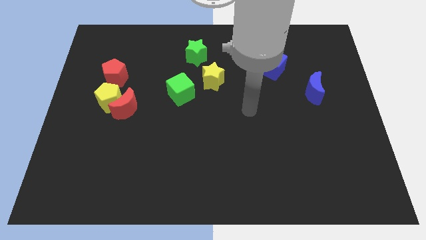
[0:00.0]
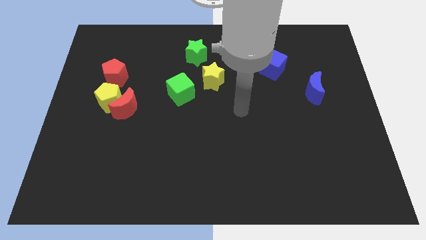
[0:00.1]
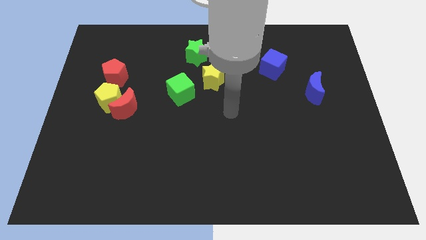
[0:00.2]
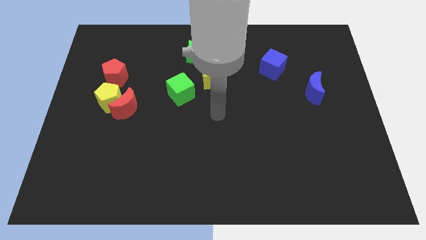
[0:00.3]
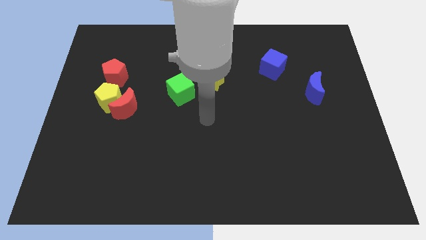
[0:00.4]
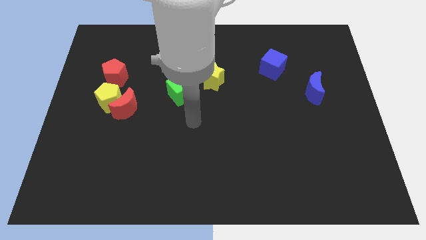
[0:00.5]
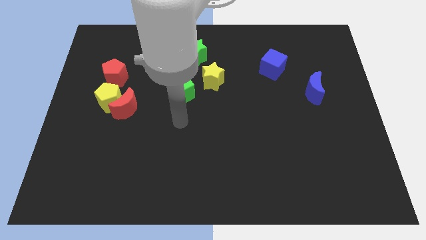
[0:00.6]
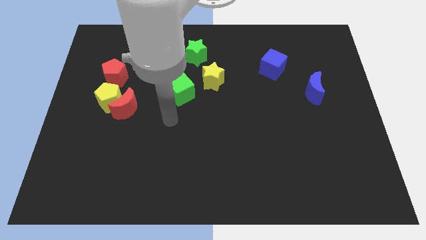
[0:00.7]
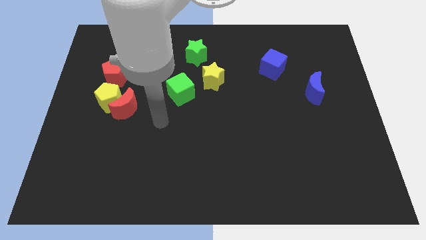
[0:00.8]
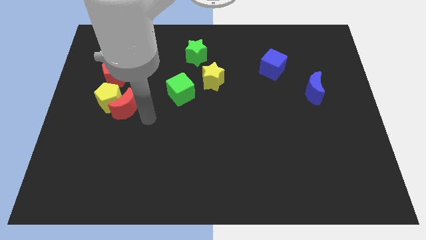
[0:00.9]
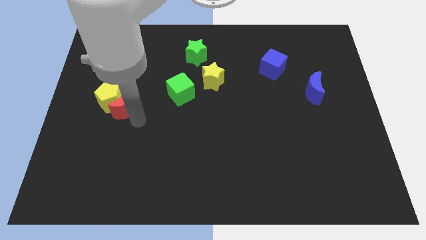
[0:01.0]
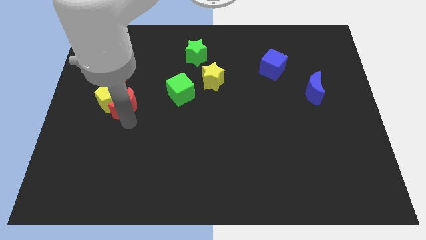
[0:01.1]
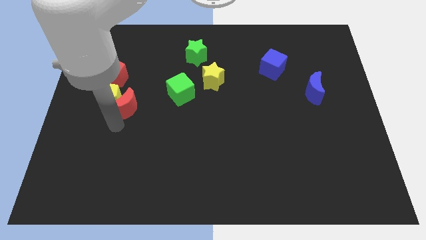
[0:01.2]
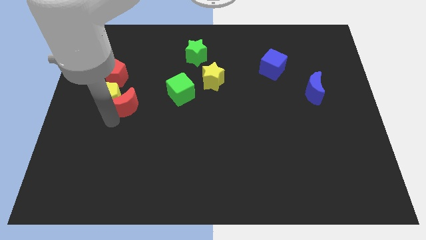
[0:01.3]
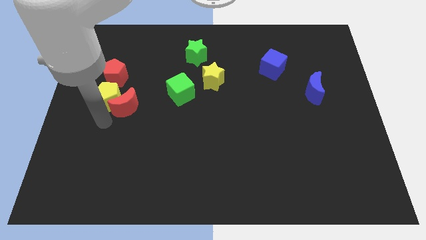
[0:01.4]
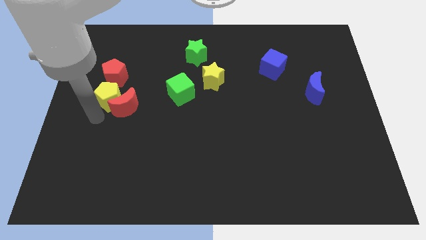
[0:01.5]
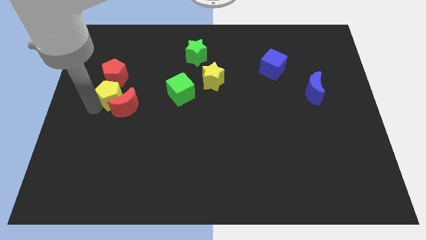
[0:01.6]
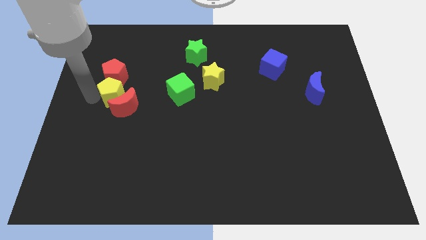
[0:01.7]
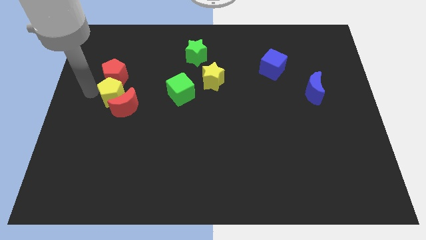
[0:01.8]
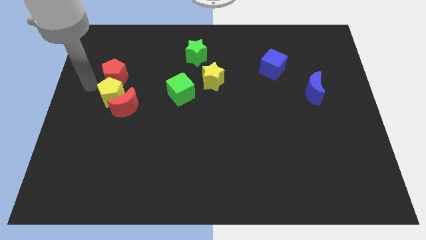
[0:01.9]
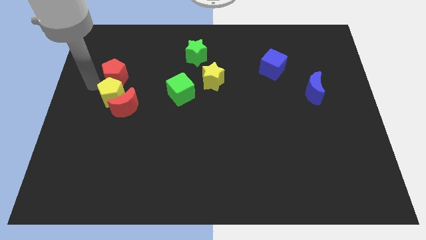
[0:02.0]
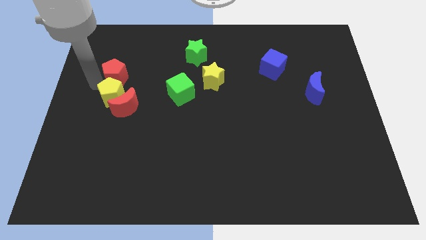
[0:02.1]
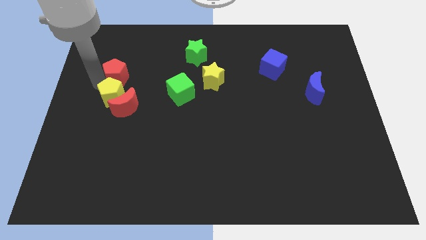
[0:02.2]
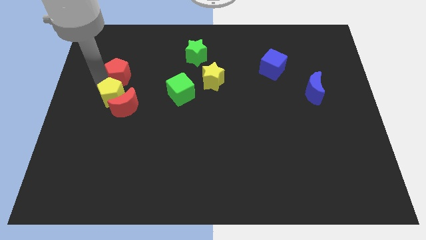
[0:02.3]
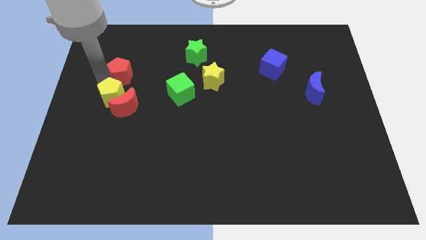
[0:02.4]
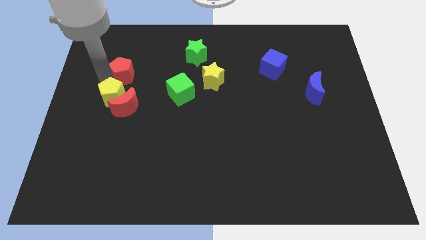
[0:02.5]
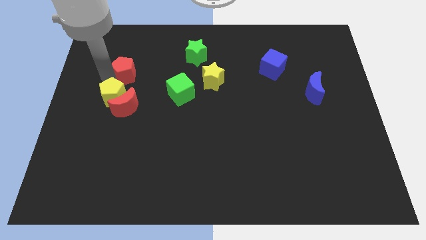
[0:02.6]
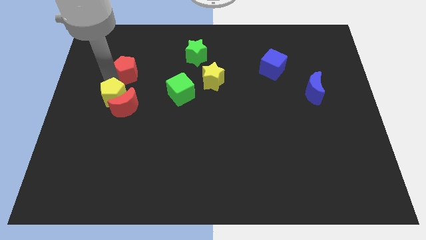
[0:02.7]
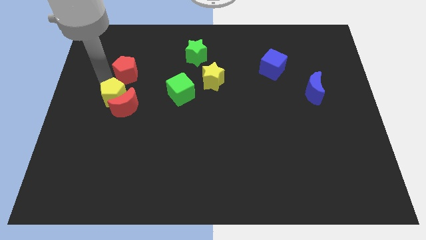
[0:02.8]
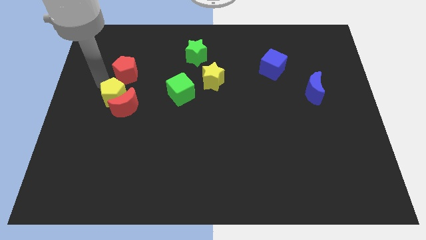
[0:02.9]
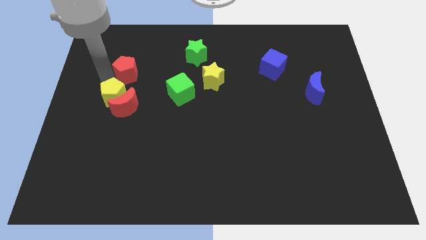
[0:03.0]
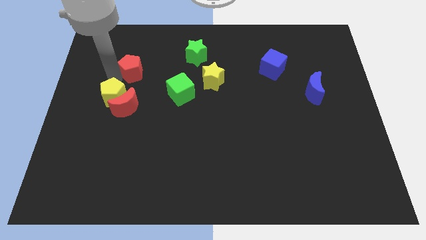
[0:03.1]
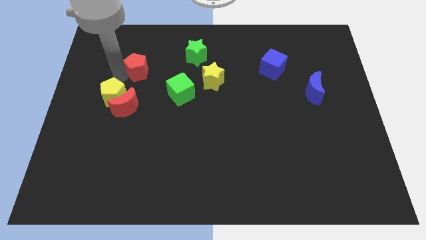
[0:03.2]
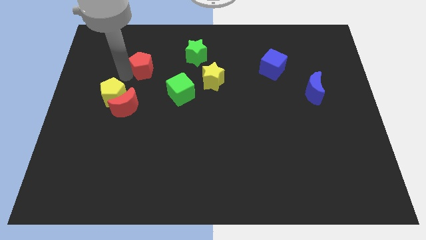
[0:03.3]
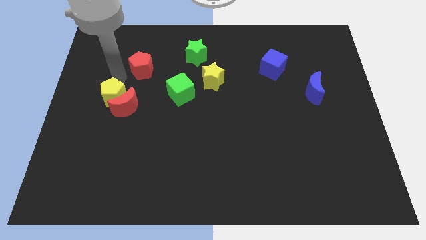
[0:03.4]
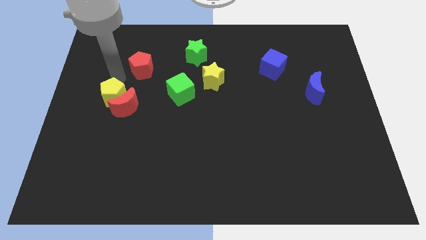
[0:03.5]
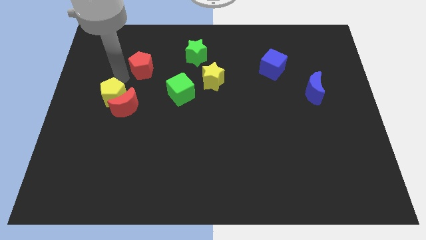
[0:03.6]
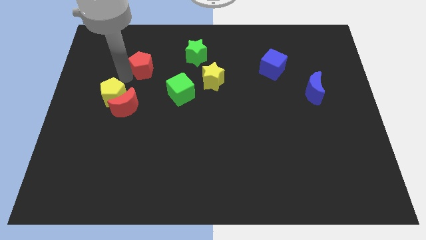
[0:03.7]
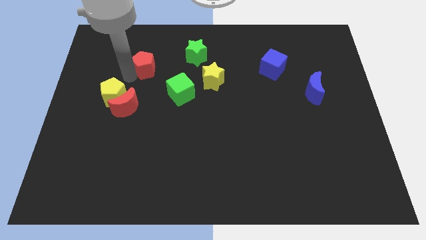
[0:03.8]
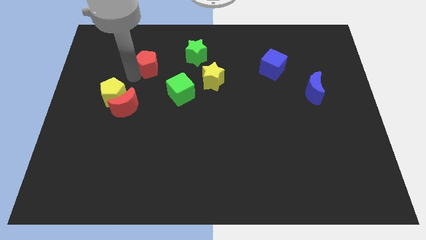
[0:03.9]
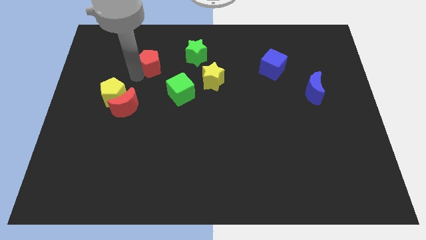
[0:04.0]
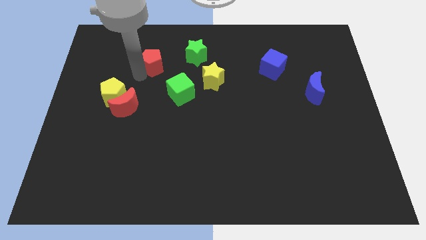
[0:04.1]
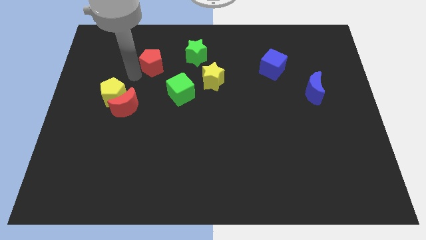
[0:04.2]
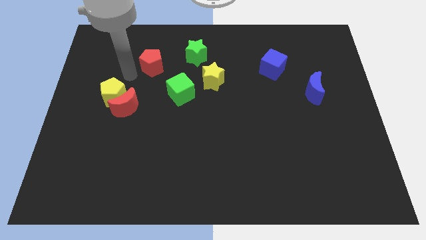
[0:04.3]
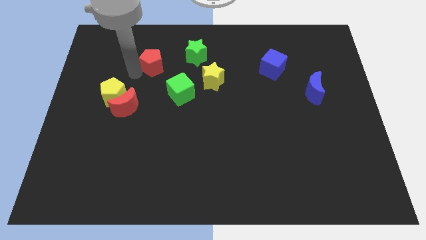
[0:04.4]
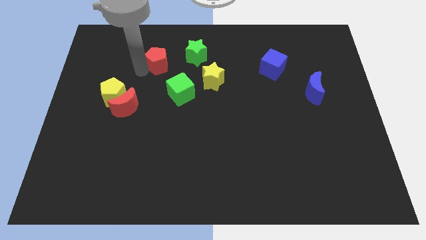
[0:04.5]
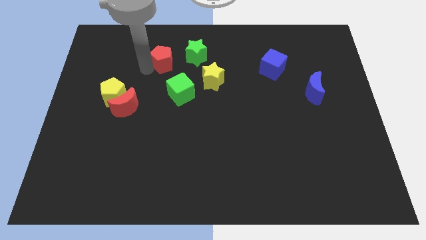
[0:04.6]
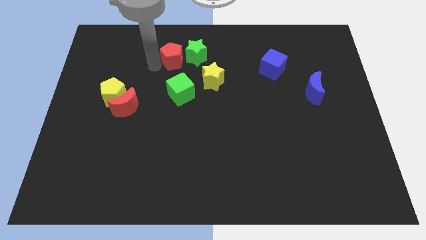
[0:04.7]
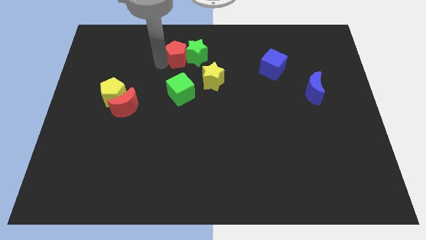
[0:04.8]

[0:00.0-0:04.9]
push the red pentagon next to the green star

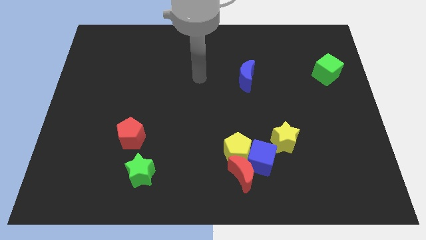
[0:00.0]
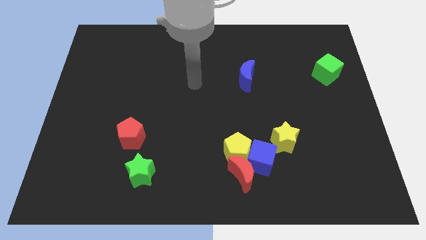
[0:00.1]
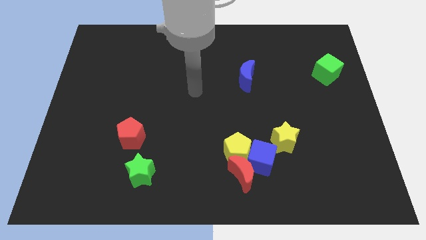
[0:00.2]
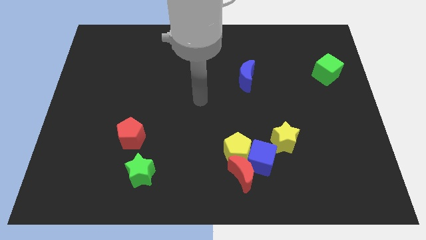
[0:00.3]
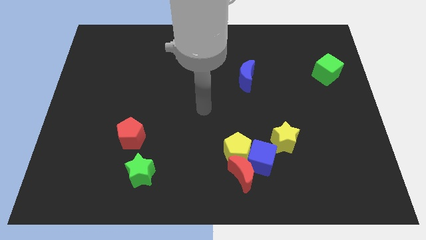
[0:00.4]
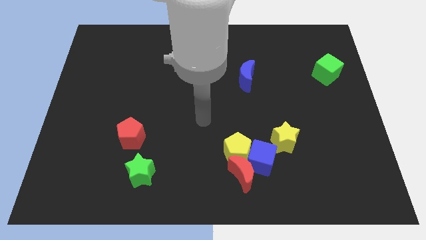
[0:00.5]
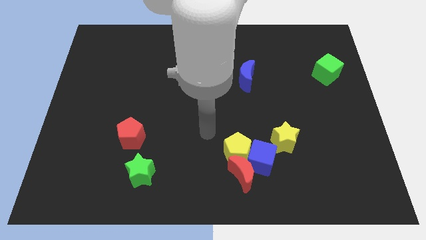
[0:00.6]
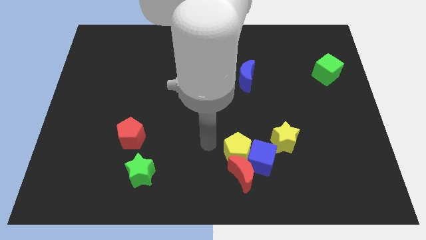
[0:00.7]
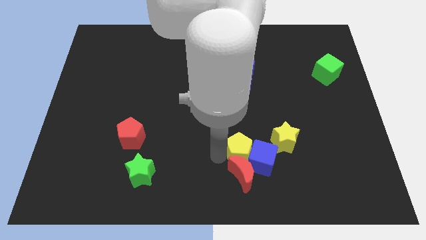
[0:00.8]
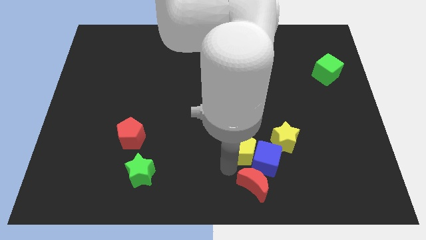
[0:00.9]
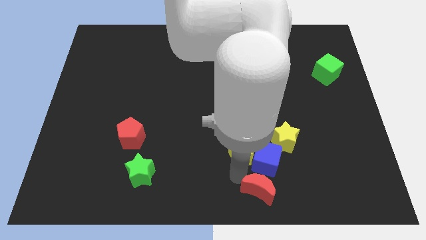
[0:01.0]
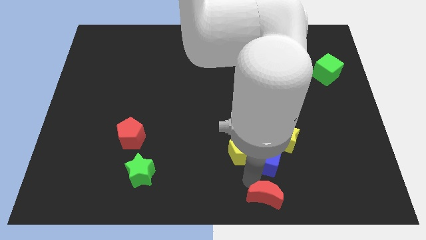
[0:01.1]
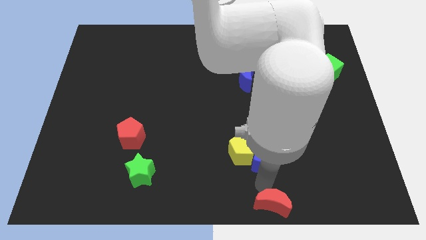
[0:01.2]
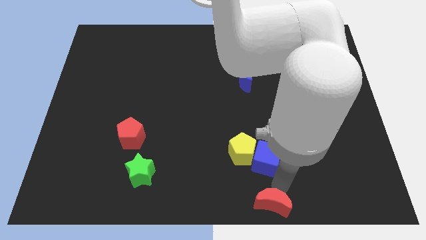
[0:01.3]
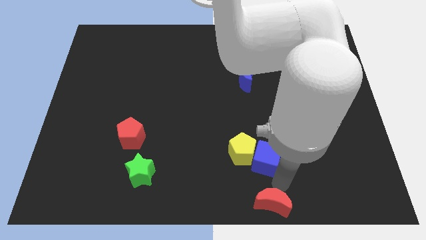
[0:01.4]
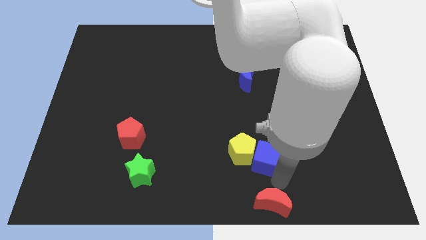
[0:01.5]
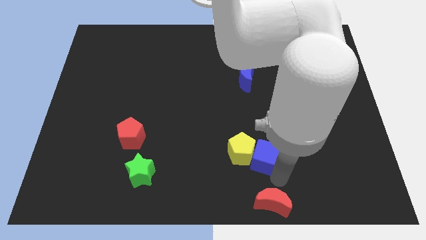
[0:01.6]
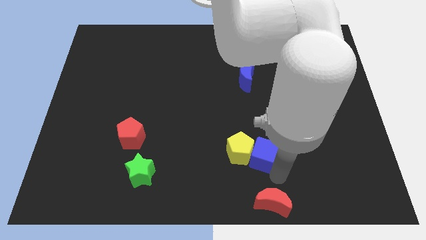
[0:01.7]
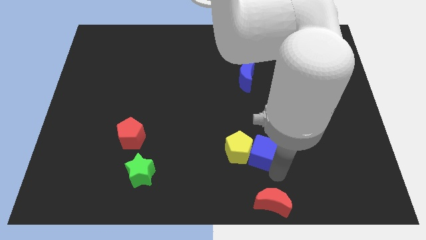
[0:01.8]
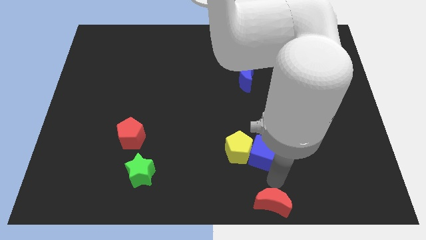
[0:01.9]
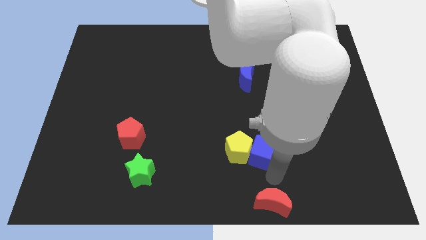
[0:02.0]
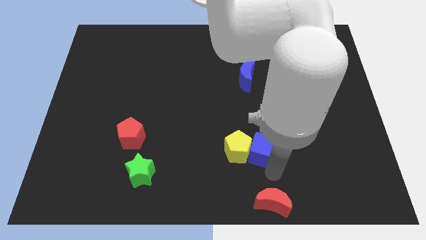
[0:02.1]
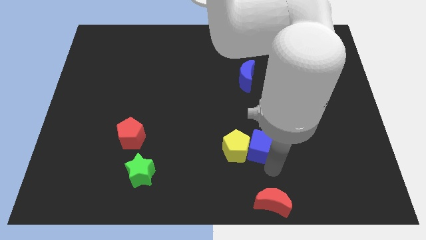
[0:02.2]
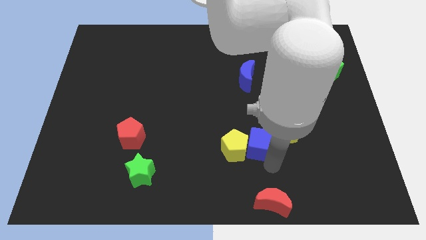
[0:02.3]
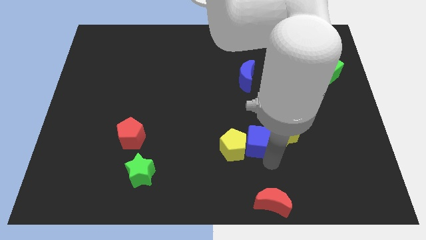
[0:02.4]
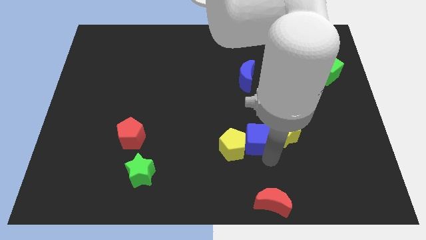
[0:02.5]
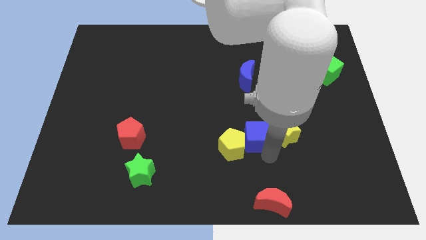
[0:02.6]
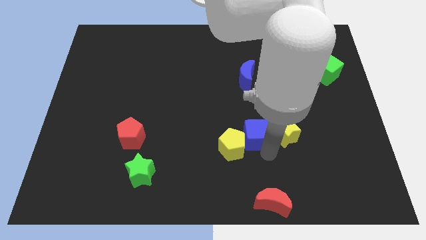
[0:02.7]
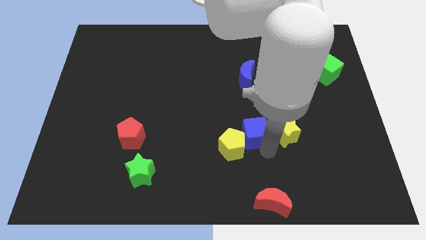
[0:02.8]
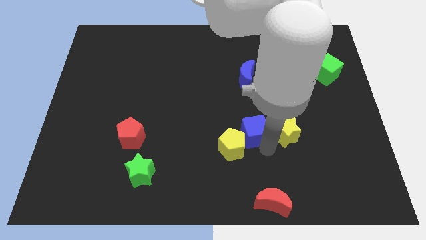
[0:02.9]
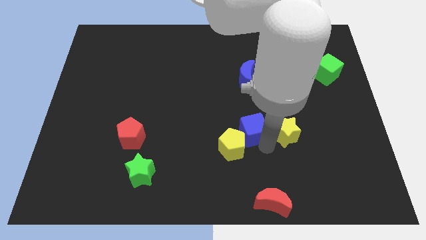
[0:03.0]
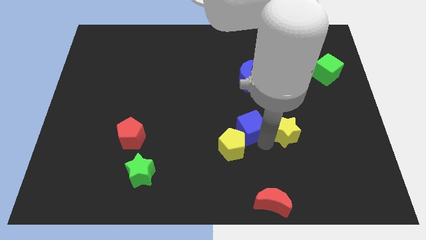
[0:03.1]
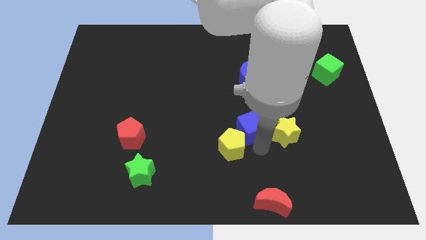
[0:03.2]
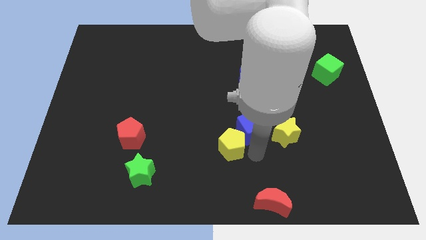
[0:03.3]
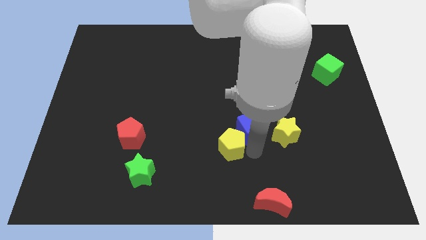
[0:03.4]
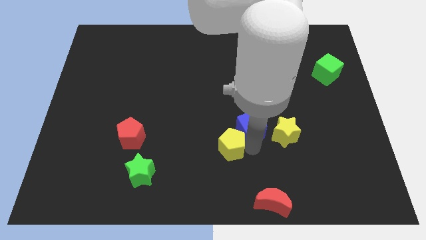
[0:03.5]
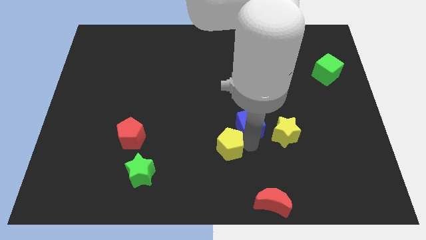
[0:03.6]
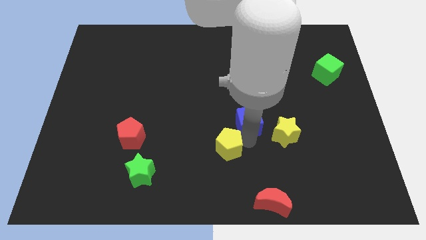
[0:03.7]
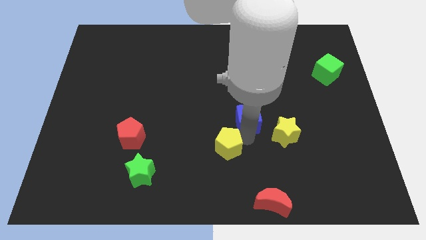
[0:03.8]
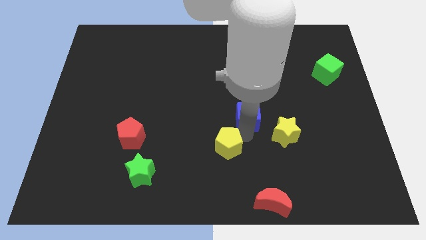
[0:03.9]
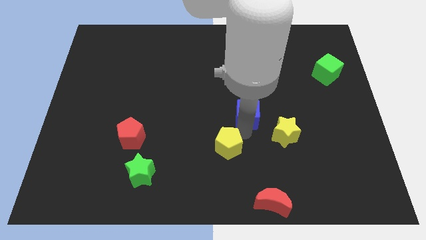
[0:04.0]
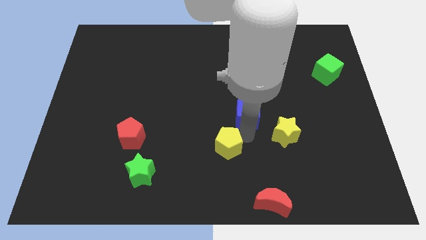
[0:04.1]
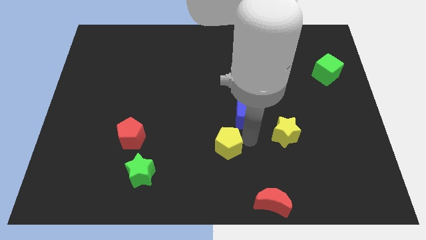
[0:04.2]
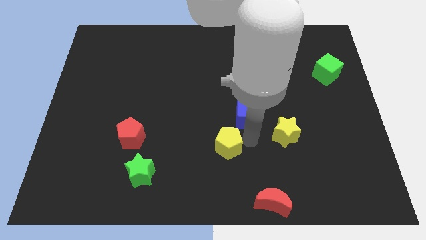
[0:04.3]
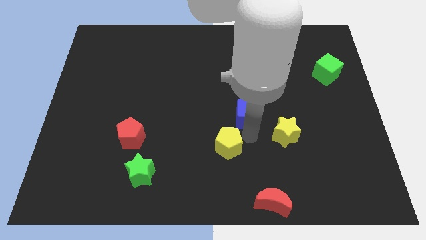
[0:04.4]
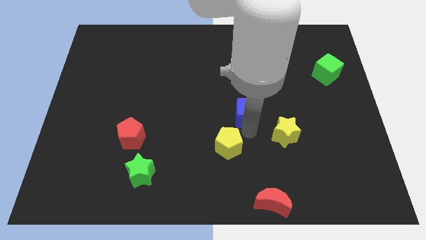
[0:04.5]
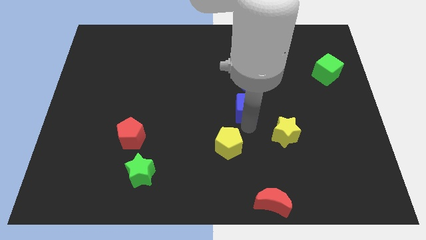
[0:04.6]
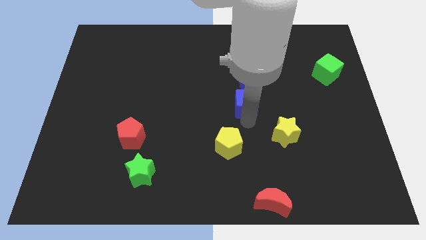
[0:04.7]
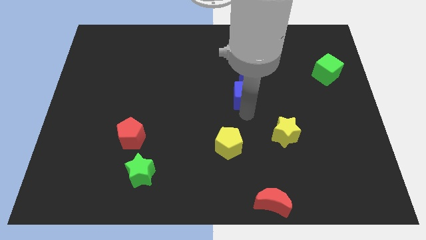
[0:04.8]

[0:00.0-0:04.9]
move the blue cube close to the blue moon
